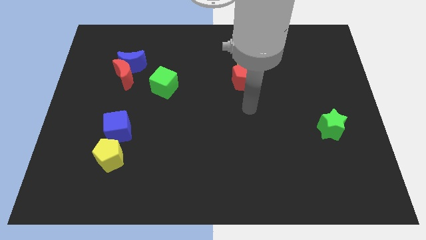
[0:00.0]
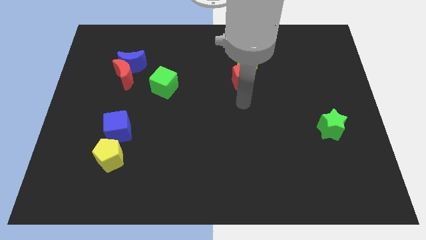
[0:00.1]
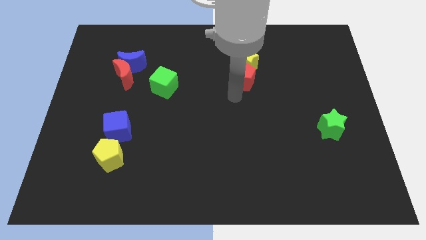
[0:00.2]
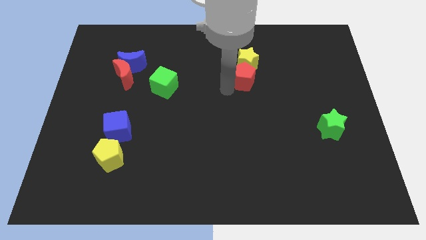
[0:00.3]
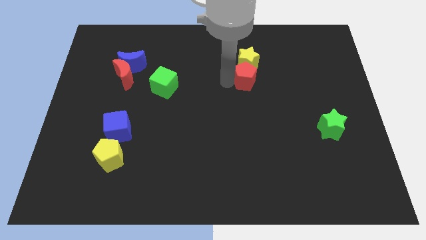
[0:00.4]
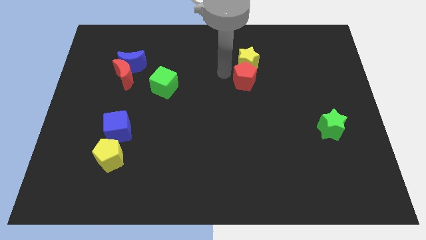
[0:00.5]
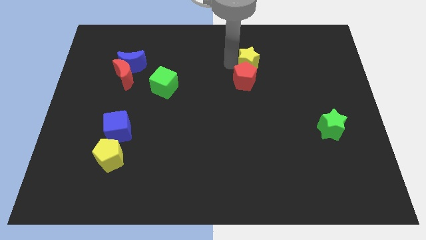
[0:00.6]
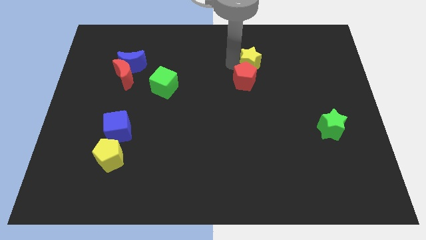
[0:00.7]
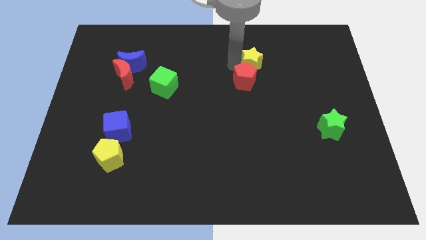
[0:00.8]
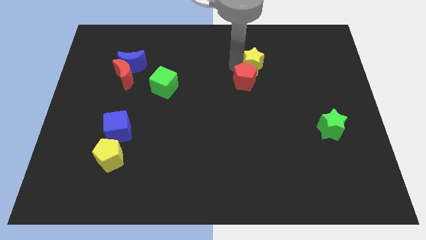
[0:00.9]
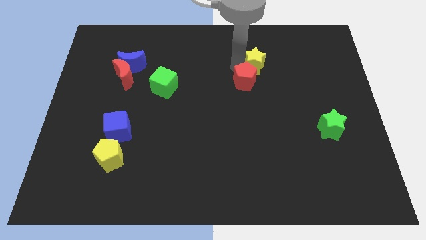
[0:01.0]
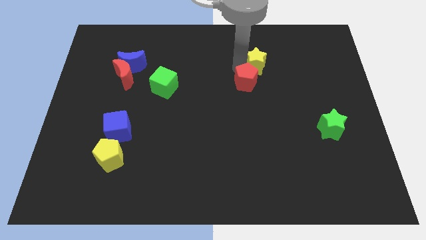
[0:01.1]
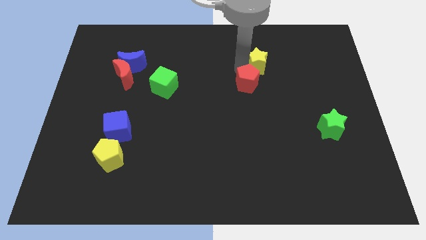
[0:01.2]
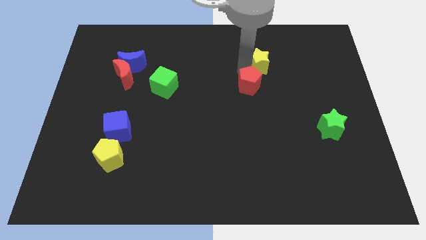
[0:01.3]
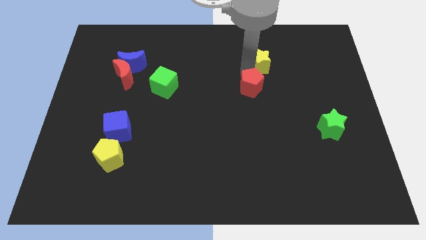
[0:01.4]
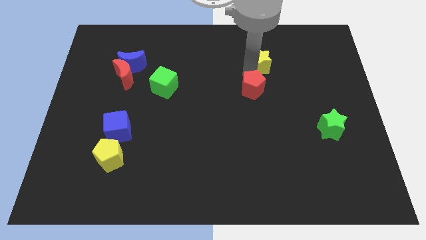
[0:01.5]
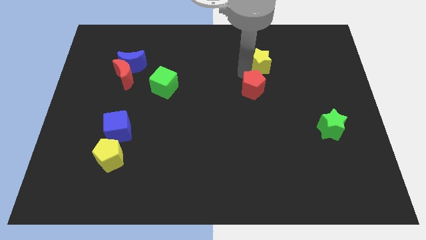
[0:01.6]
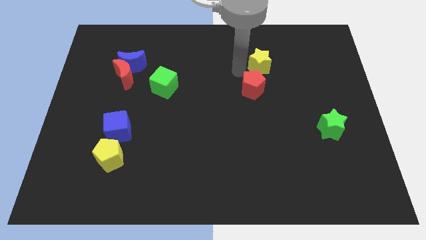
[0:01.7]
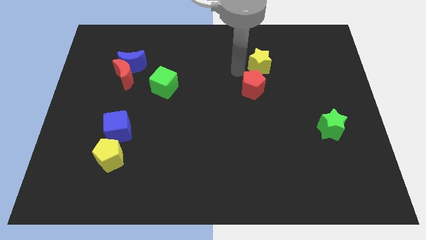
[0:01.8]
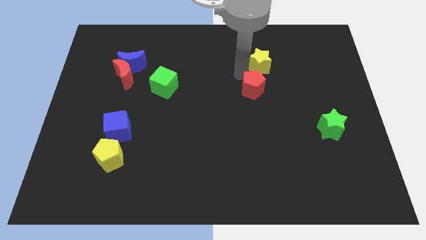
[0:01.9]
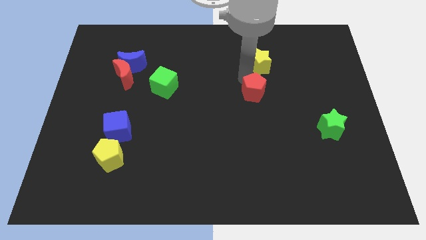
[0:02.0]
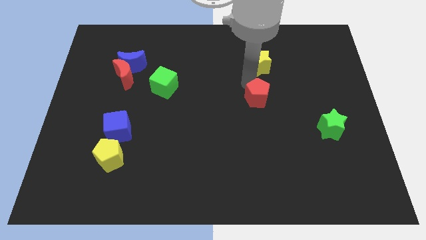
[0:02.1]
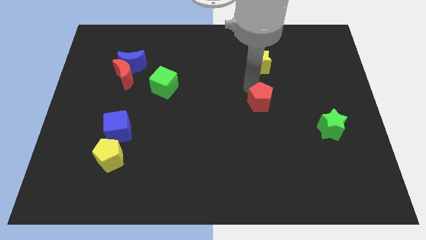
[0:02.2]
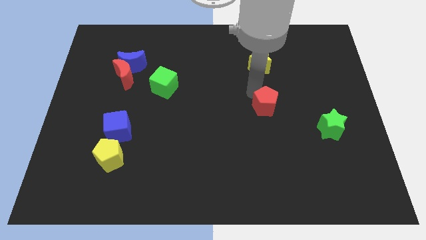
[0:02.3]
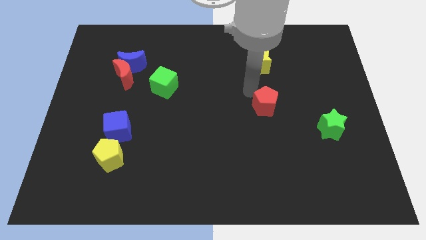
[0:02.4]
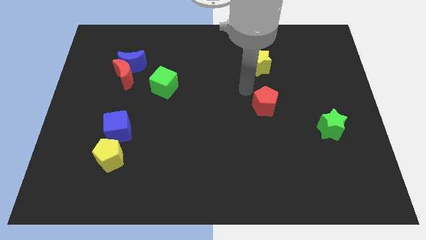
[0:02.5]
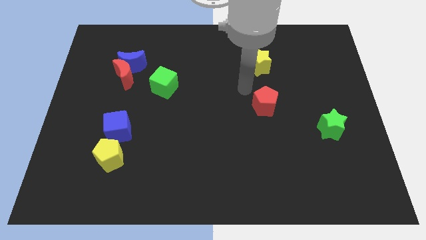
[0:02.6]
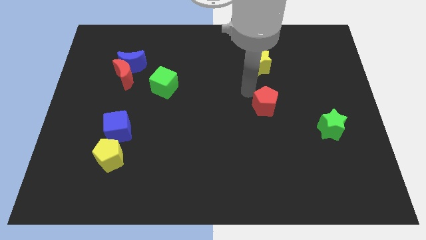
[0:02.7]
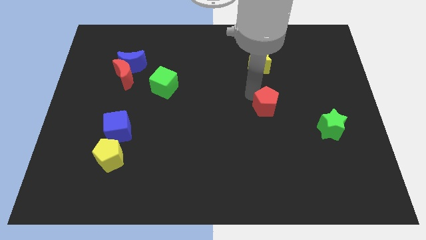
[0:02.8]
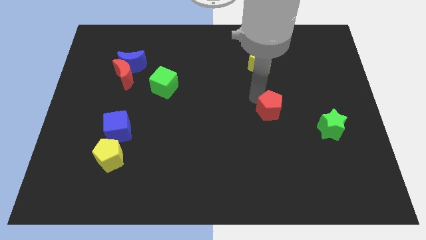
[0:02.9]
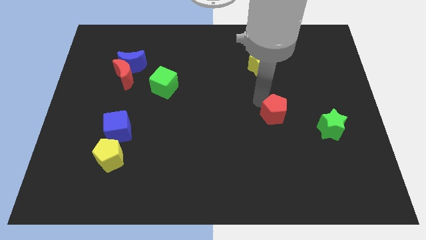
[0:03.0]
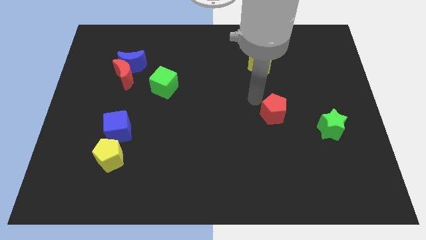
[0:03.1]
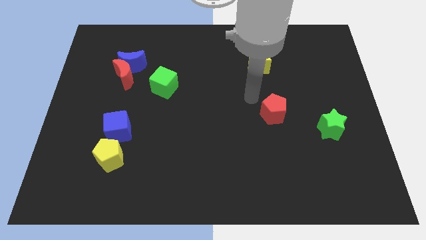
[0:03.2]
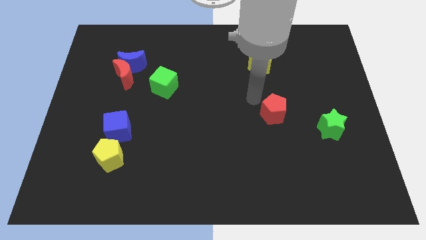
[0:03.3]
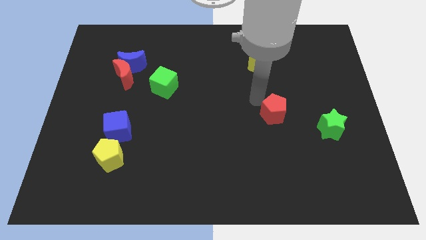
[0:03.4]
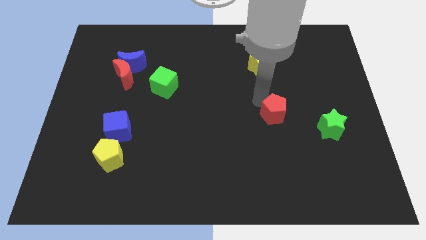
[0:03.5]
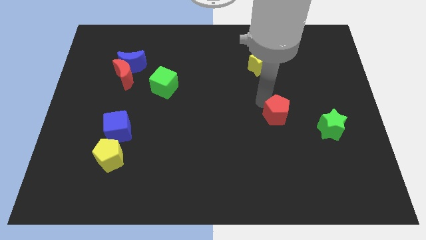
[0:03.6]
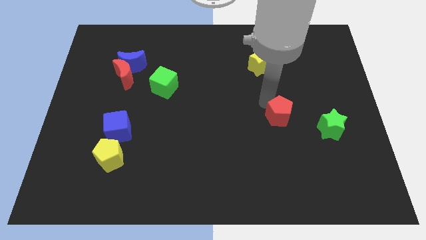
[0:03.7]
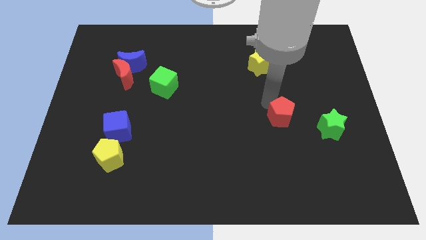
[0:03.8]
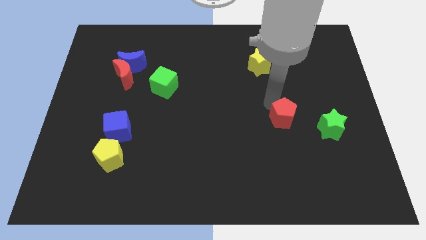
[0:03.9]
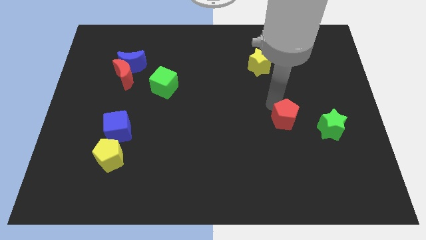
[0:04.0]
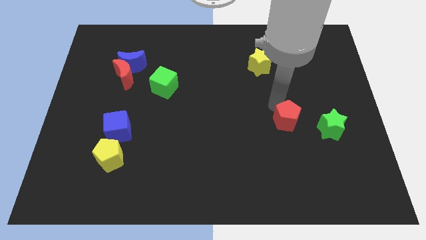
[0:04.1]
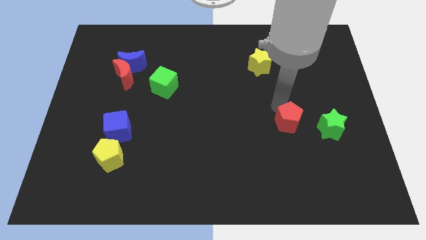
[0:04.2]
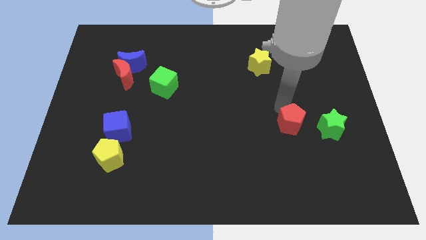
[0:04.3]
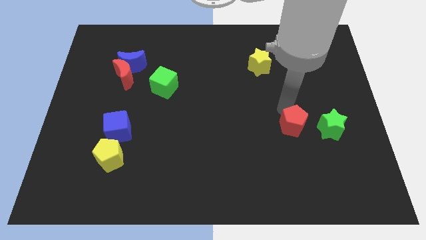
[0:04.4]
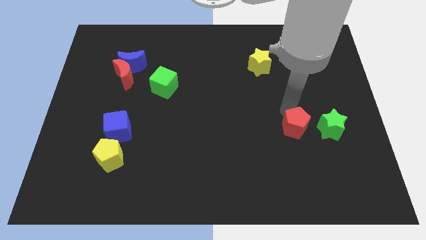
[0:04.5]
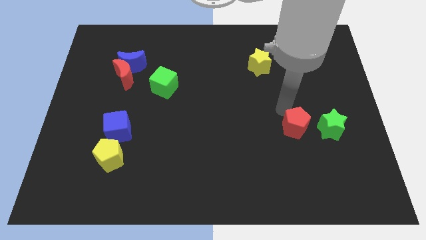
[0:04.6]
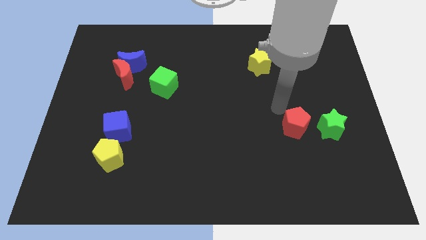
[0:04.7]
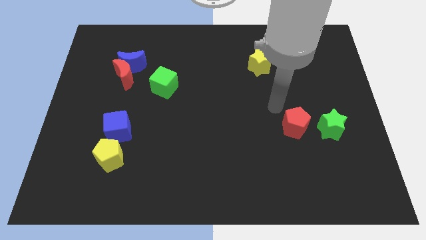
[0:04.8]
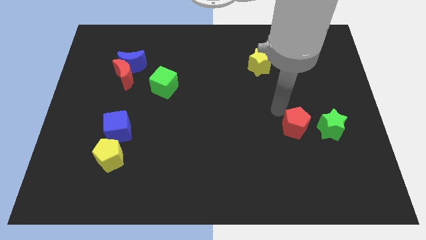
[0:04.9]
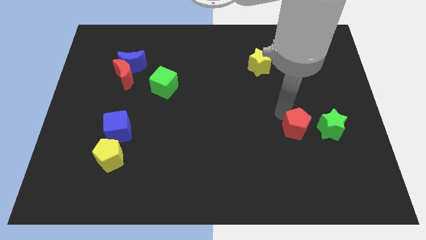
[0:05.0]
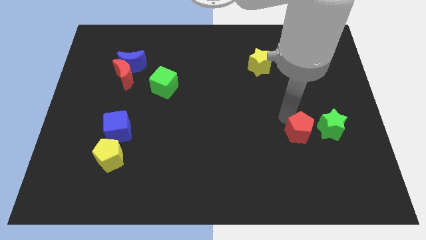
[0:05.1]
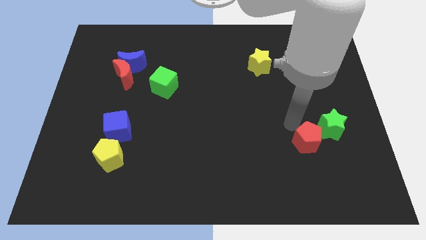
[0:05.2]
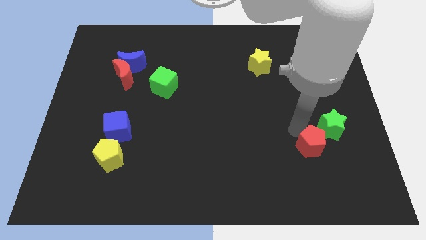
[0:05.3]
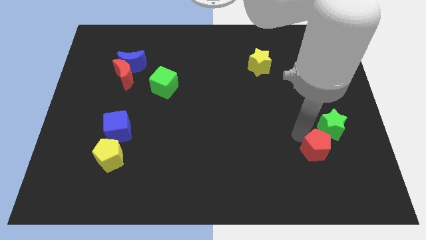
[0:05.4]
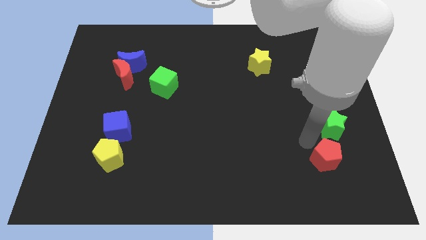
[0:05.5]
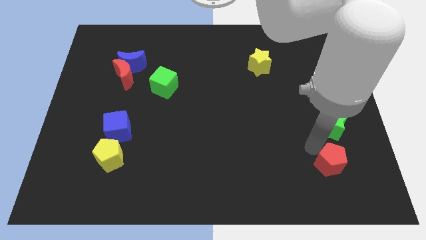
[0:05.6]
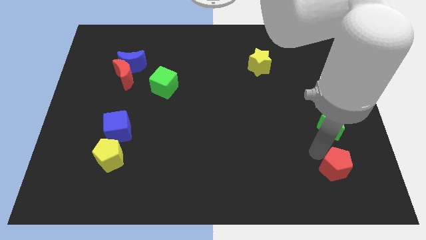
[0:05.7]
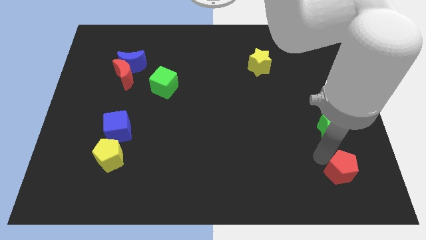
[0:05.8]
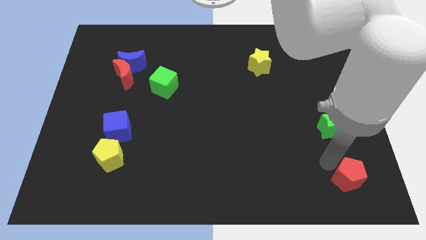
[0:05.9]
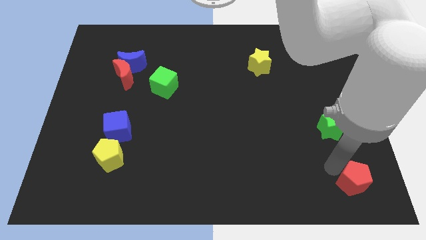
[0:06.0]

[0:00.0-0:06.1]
slide the red pentagon to the bottom right of the board

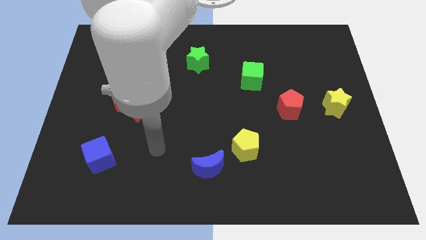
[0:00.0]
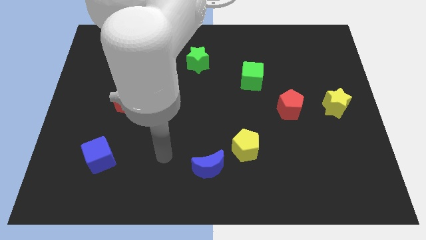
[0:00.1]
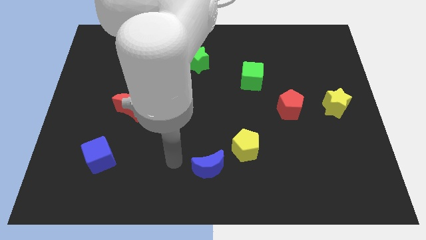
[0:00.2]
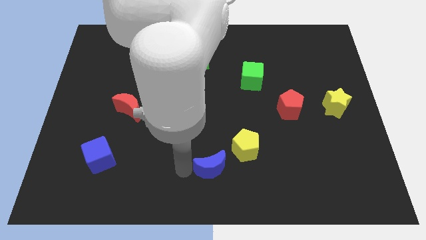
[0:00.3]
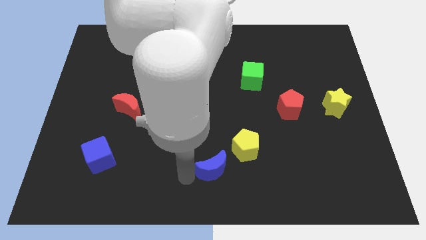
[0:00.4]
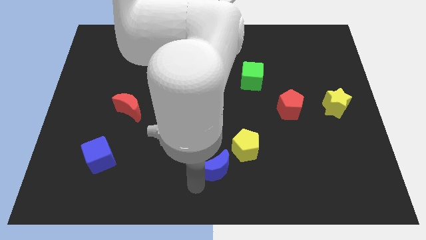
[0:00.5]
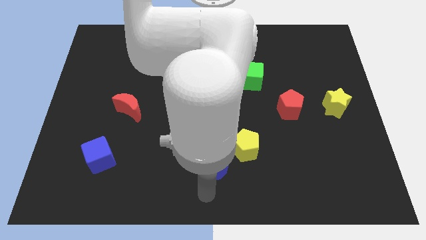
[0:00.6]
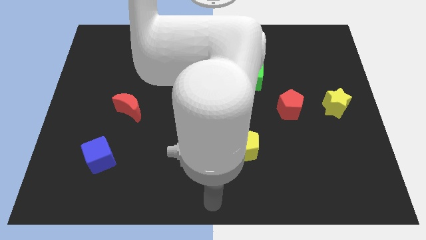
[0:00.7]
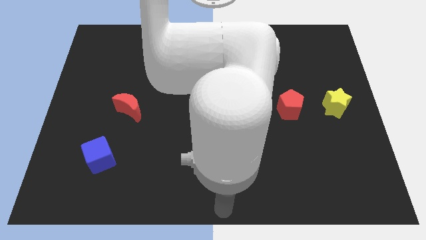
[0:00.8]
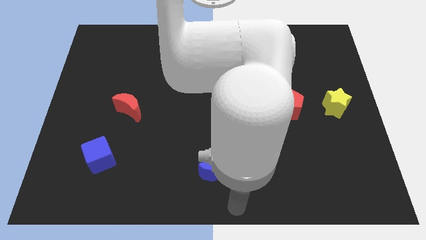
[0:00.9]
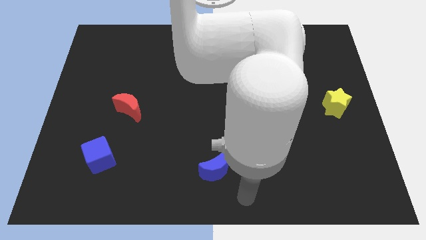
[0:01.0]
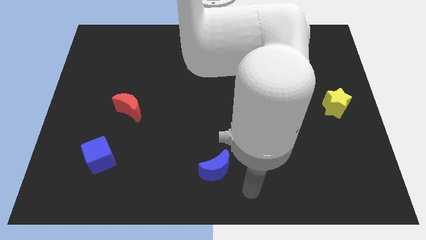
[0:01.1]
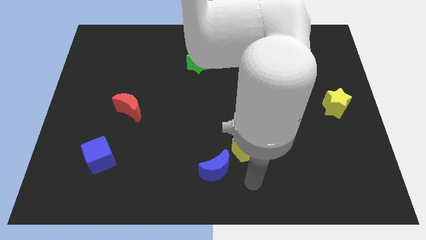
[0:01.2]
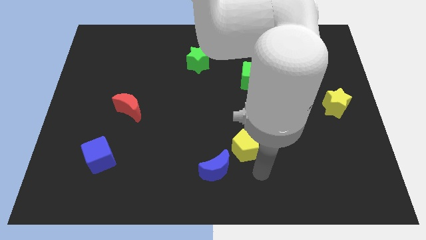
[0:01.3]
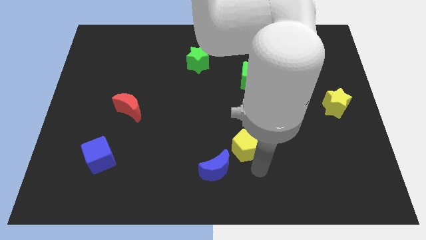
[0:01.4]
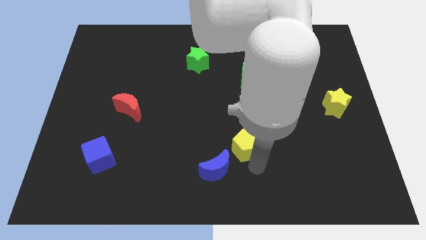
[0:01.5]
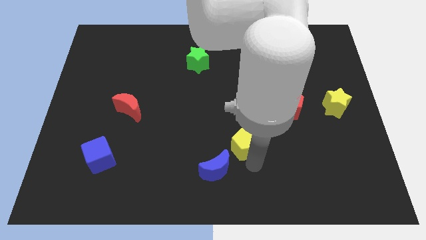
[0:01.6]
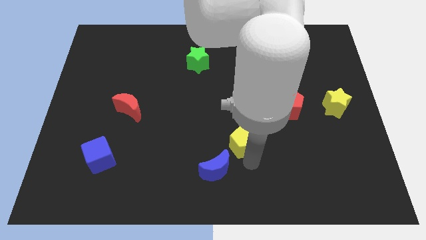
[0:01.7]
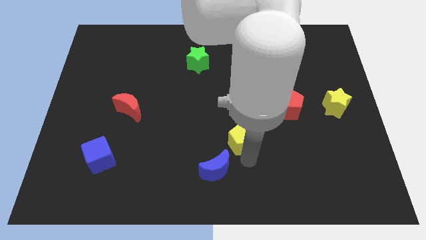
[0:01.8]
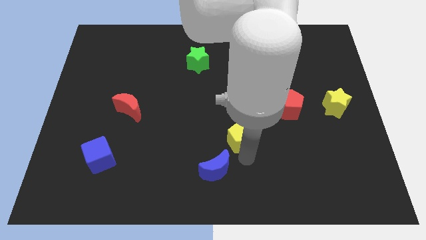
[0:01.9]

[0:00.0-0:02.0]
move the yellow pentagon to the middle
